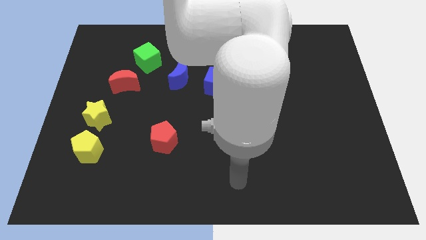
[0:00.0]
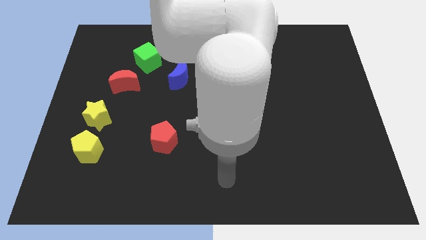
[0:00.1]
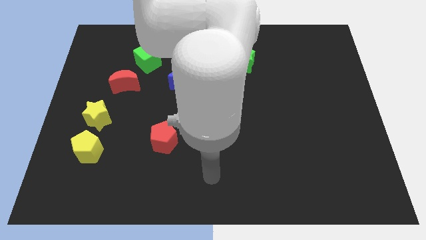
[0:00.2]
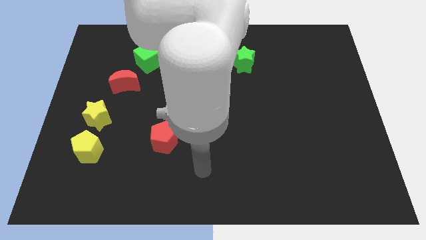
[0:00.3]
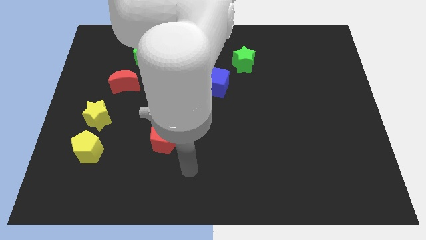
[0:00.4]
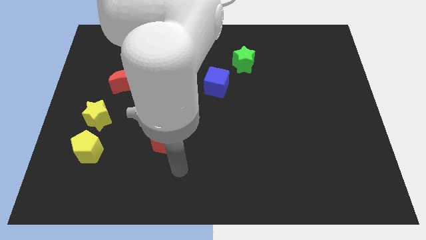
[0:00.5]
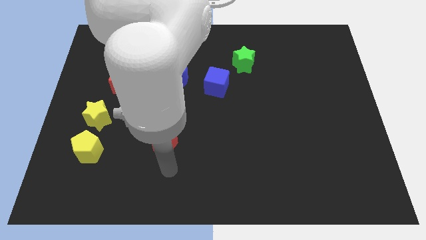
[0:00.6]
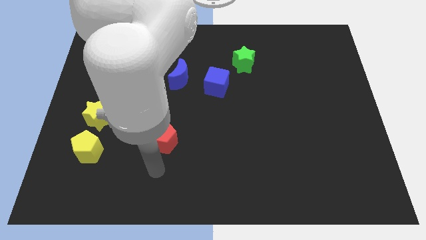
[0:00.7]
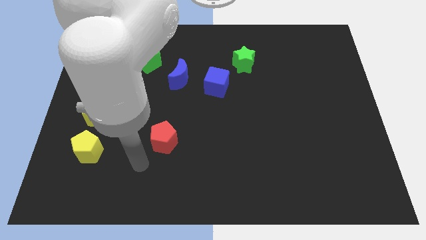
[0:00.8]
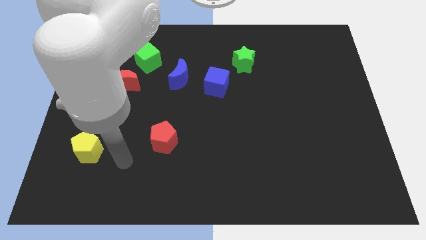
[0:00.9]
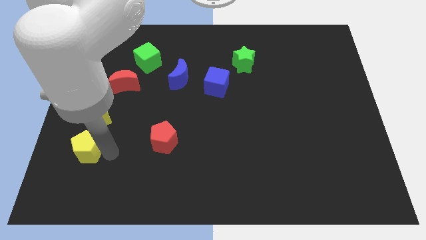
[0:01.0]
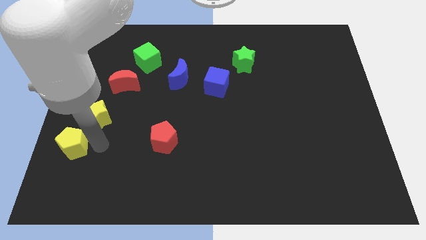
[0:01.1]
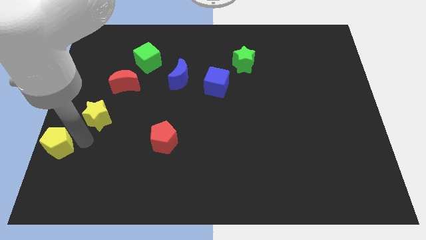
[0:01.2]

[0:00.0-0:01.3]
pull the yellow star apart from the yellow pentagon

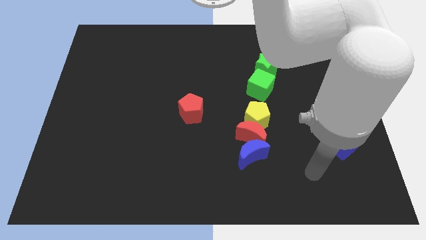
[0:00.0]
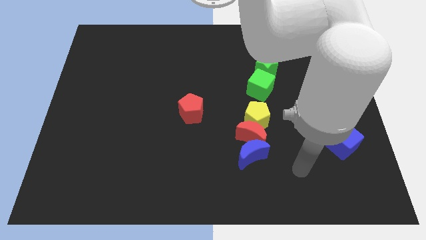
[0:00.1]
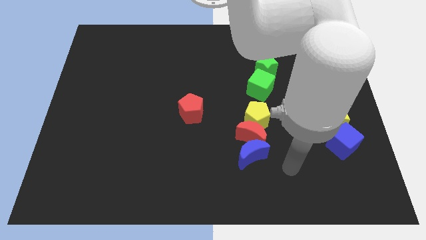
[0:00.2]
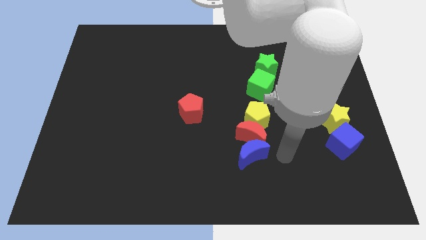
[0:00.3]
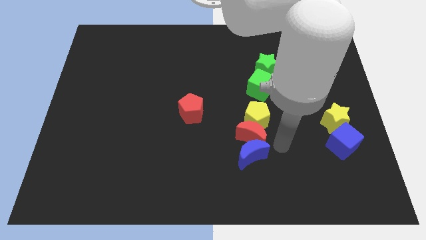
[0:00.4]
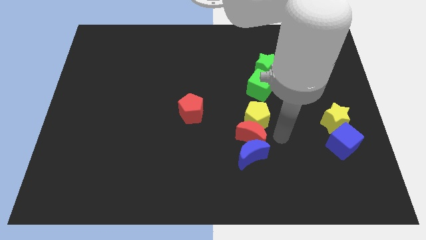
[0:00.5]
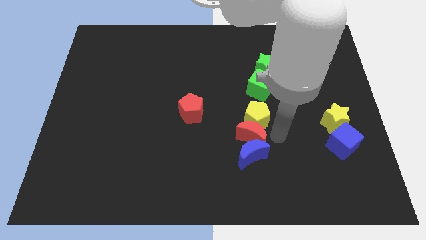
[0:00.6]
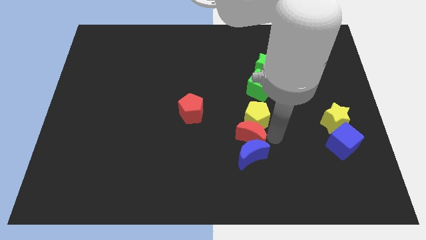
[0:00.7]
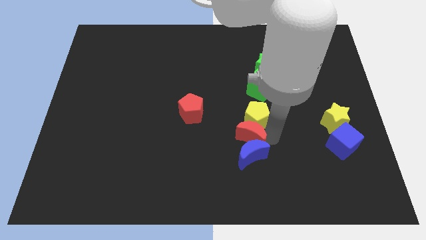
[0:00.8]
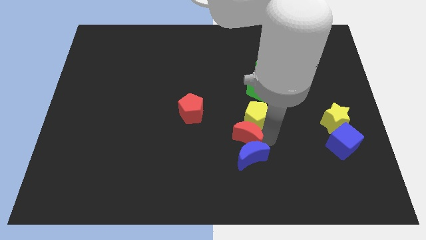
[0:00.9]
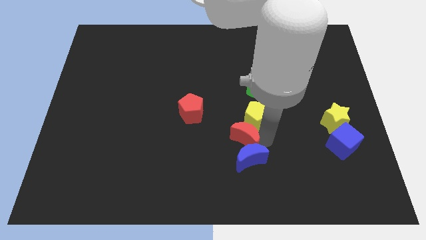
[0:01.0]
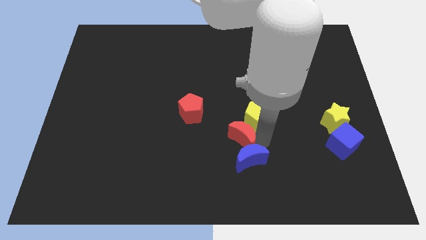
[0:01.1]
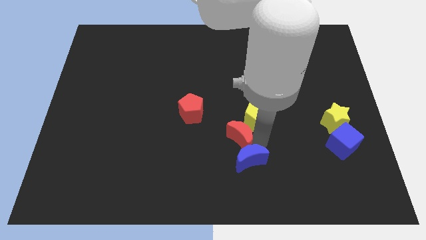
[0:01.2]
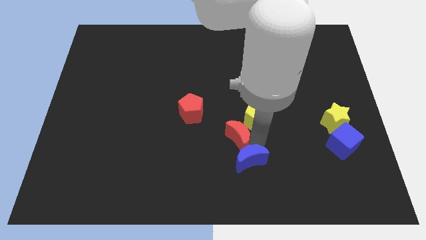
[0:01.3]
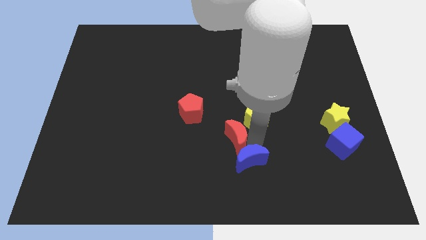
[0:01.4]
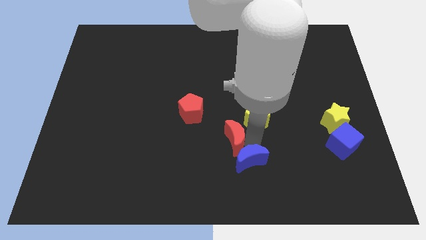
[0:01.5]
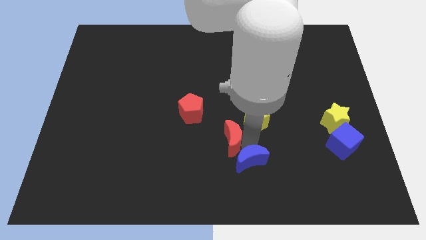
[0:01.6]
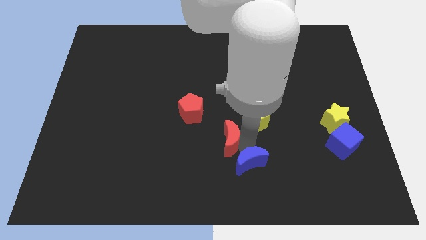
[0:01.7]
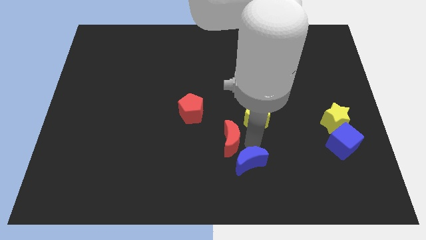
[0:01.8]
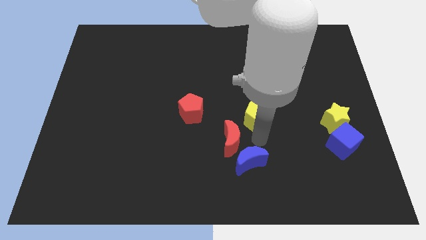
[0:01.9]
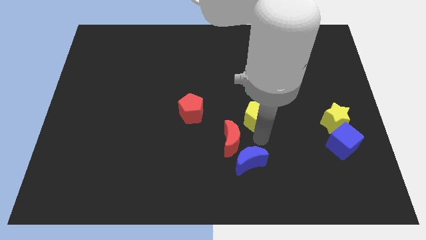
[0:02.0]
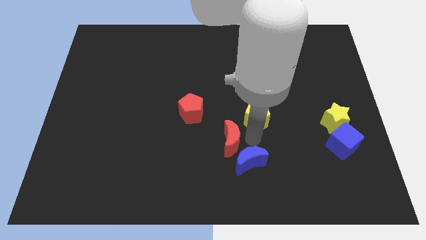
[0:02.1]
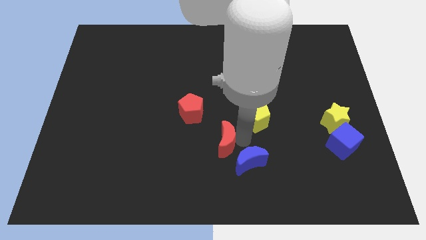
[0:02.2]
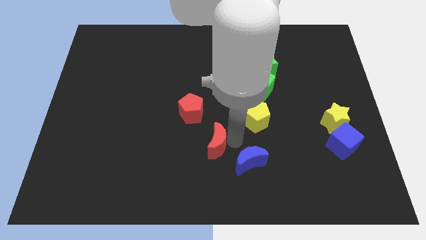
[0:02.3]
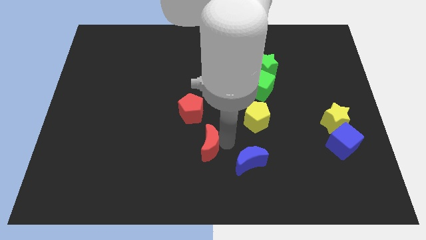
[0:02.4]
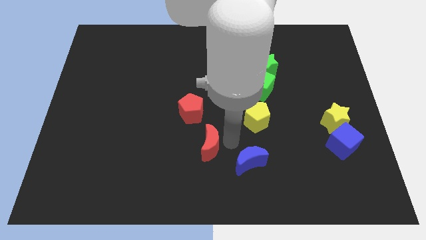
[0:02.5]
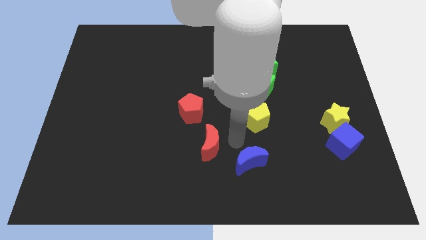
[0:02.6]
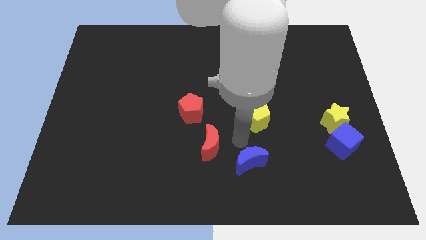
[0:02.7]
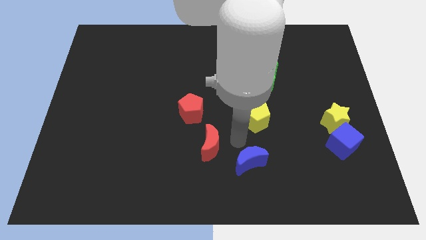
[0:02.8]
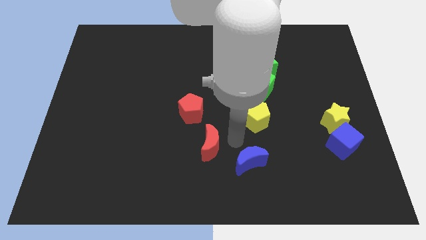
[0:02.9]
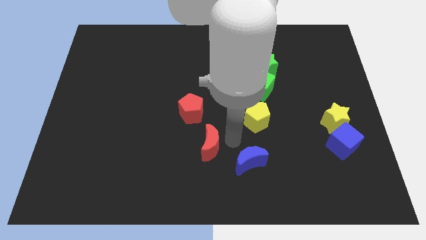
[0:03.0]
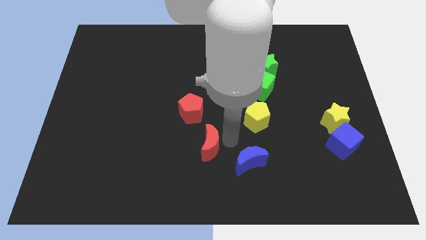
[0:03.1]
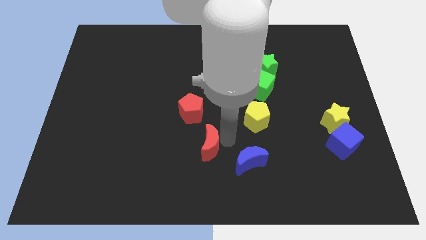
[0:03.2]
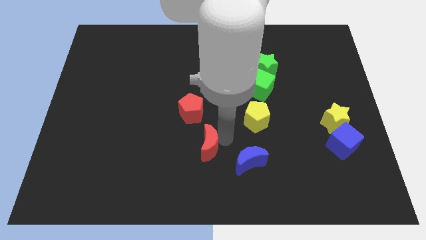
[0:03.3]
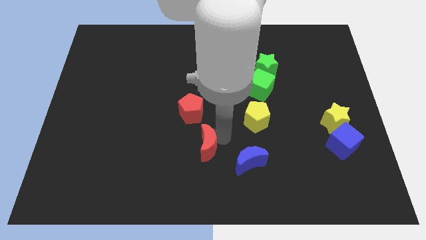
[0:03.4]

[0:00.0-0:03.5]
move the red moon away from the blue moon and yellow pentagon

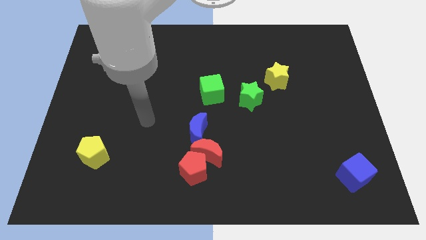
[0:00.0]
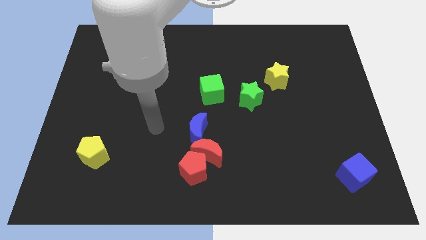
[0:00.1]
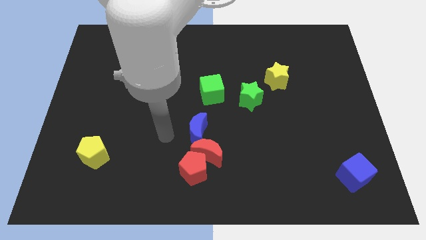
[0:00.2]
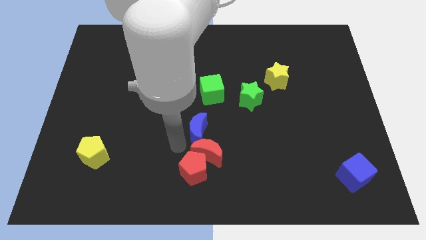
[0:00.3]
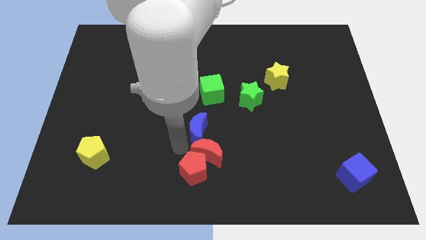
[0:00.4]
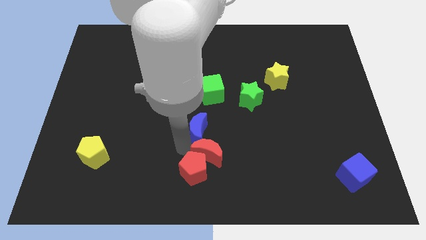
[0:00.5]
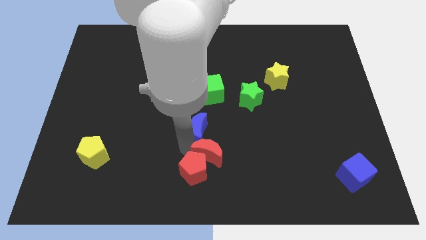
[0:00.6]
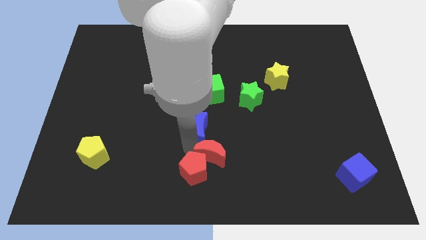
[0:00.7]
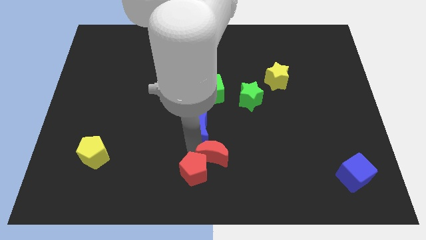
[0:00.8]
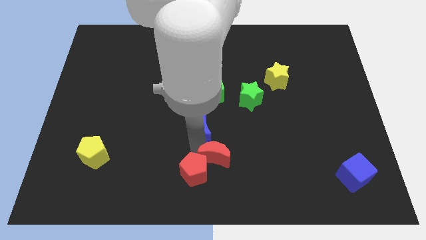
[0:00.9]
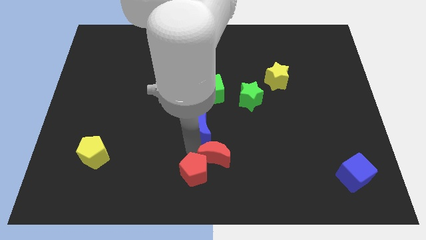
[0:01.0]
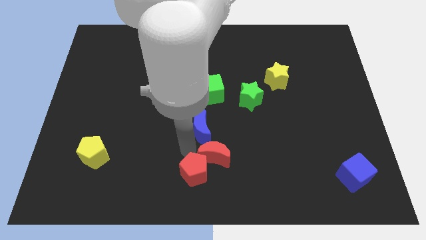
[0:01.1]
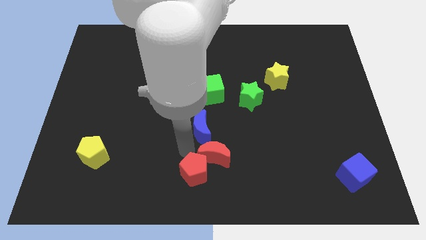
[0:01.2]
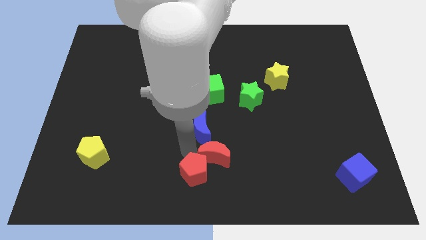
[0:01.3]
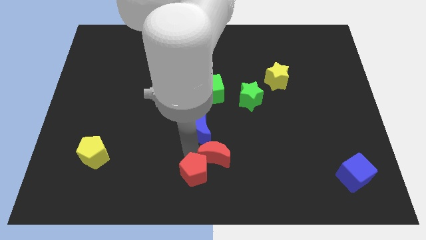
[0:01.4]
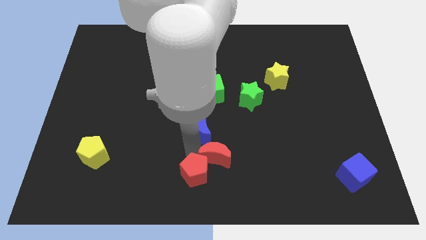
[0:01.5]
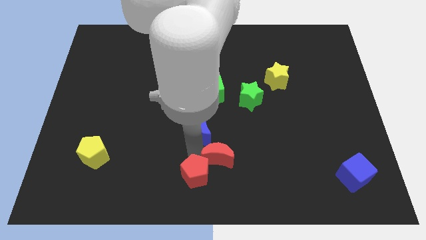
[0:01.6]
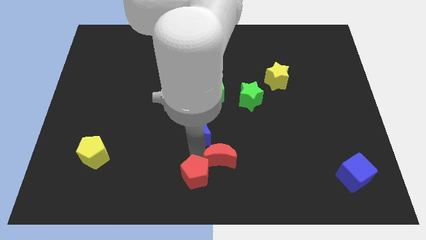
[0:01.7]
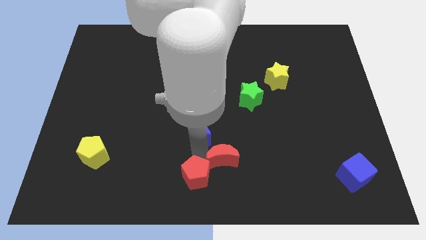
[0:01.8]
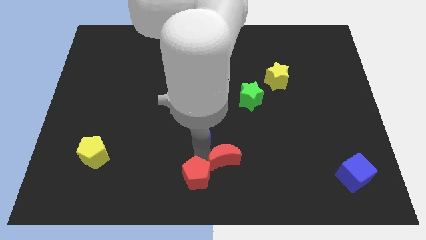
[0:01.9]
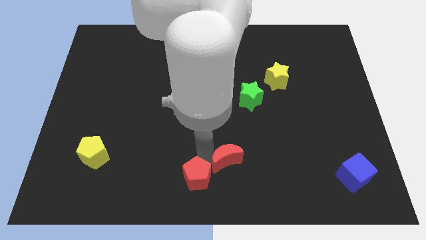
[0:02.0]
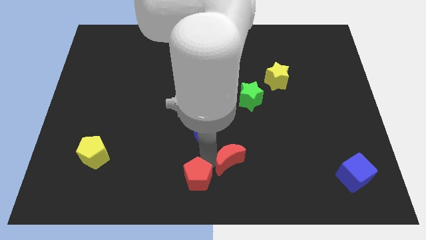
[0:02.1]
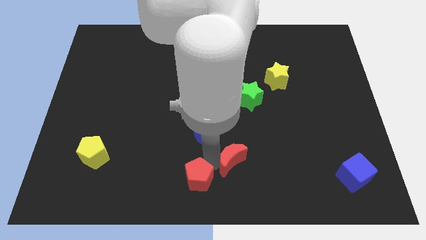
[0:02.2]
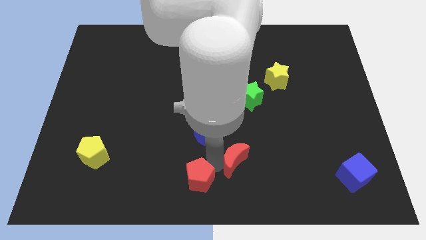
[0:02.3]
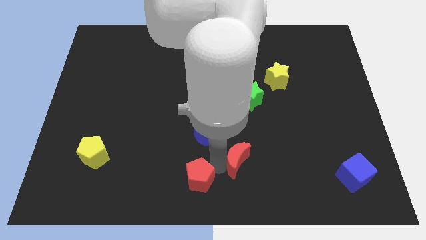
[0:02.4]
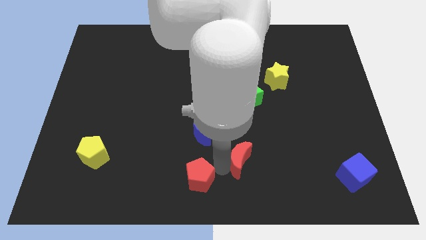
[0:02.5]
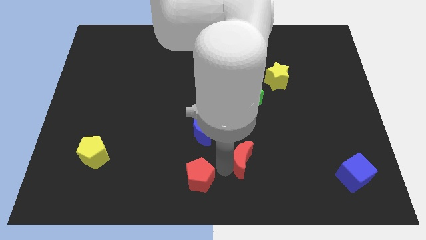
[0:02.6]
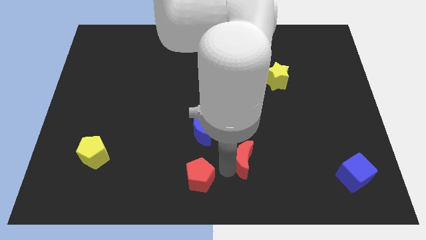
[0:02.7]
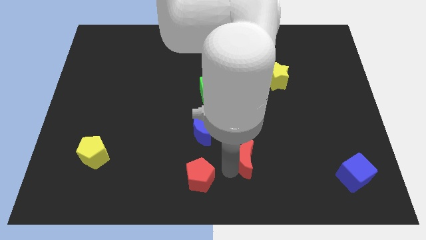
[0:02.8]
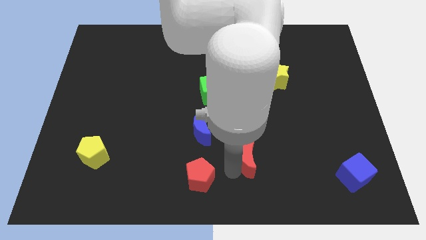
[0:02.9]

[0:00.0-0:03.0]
pull the red moon apart from the red pentagon and blue moon

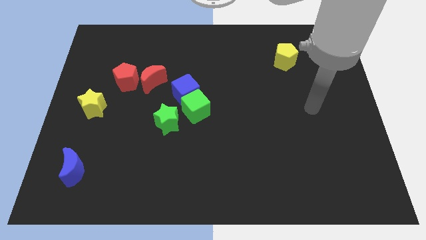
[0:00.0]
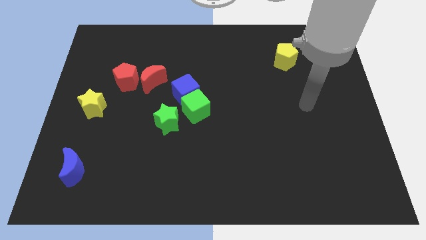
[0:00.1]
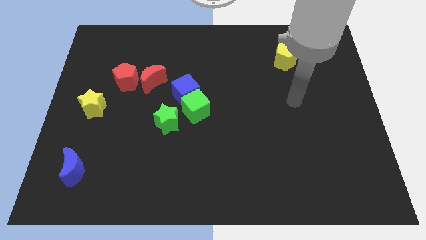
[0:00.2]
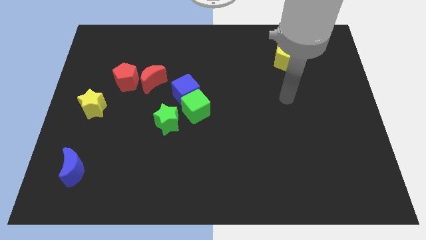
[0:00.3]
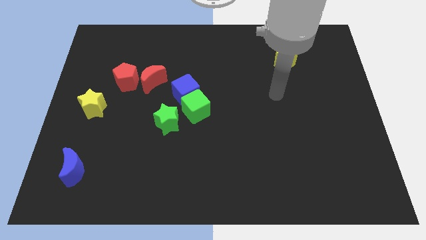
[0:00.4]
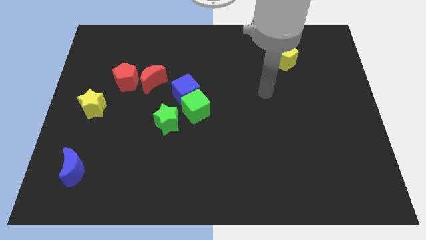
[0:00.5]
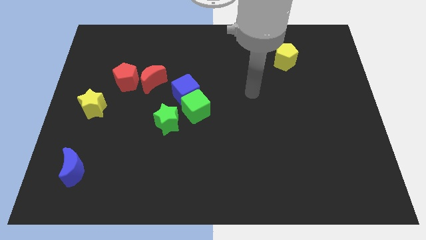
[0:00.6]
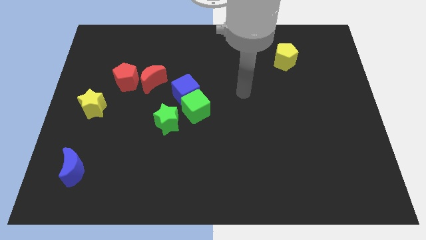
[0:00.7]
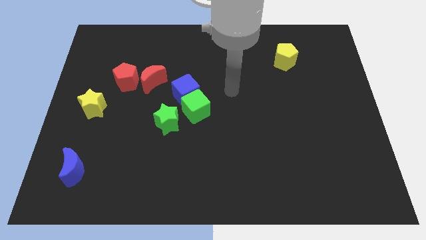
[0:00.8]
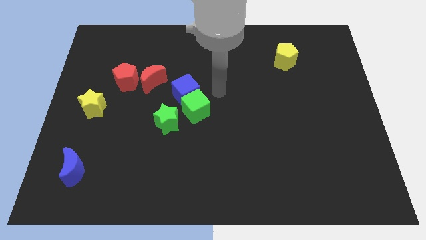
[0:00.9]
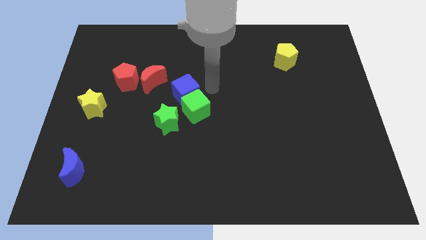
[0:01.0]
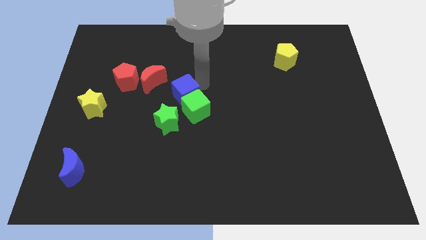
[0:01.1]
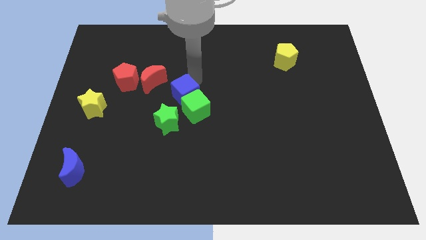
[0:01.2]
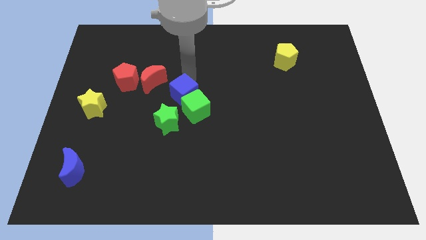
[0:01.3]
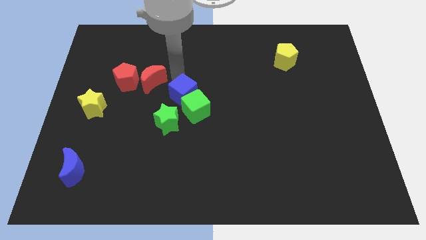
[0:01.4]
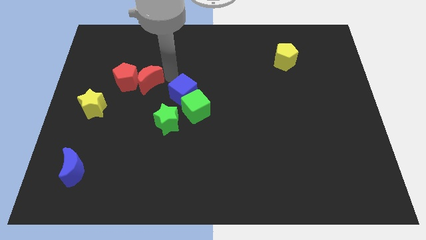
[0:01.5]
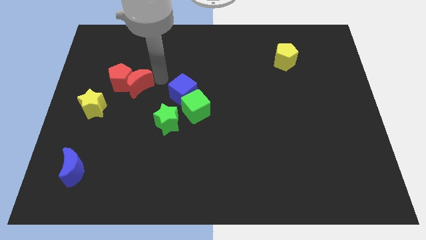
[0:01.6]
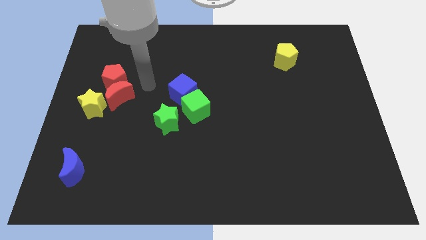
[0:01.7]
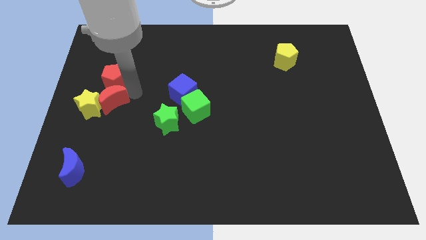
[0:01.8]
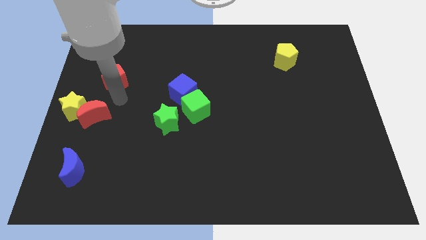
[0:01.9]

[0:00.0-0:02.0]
pull the red pentagon apart from the red moon
